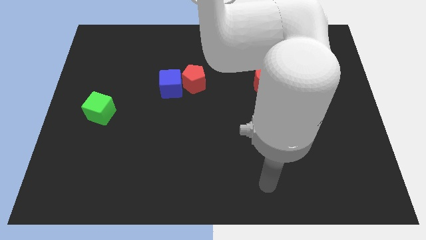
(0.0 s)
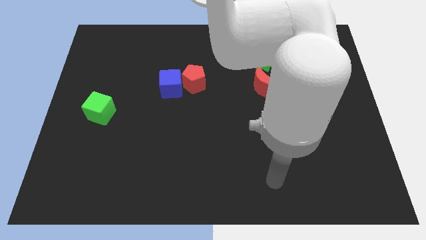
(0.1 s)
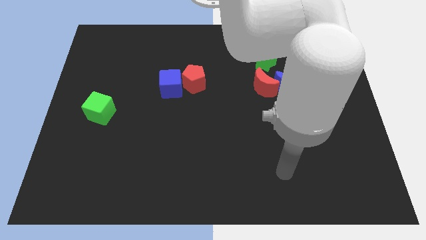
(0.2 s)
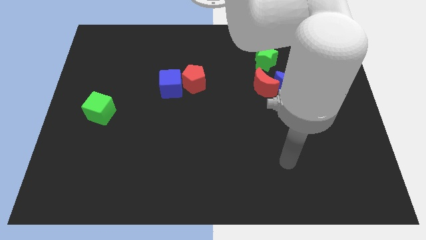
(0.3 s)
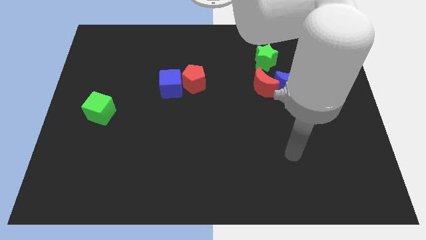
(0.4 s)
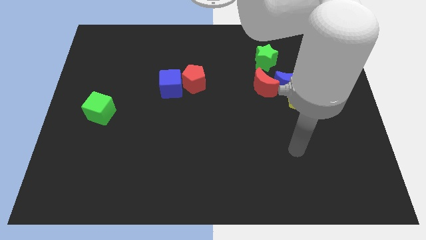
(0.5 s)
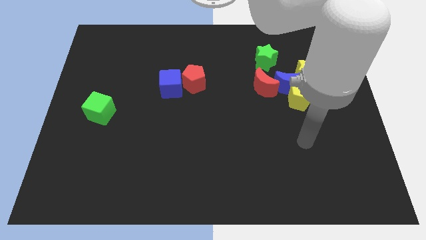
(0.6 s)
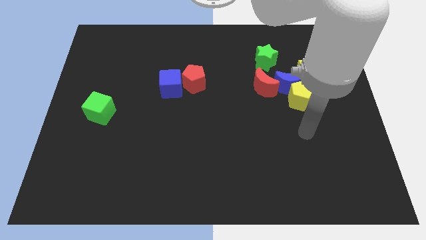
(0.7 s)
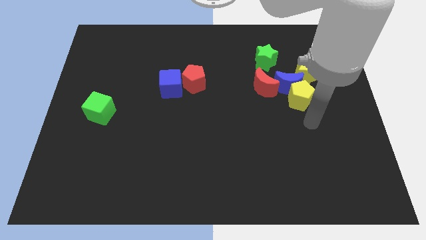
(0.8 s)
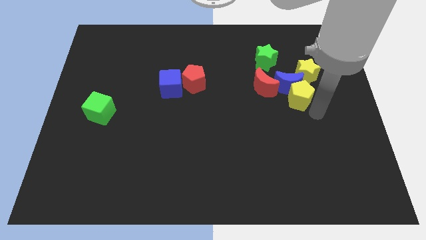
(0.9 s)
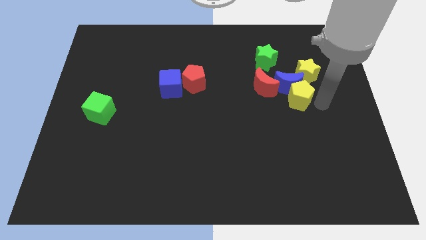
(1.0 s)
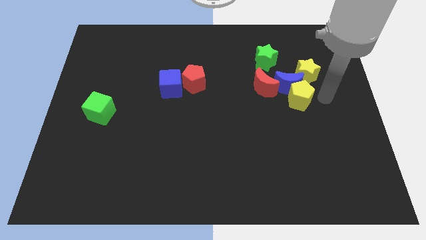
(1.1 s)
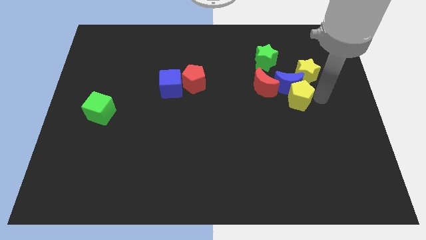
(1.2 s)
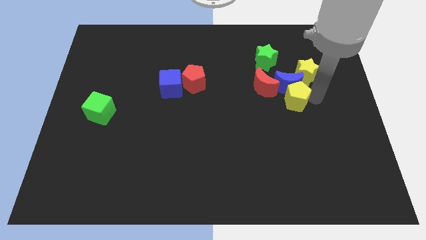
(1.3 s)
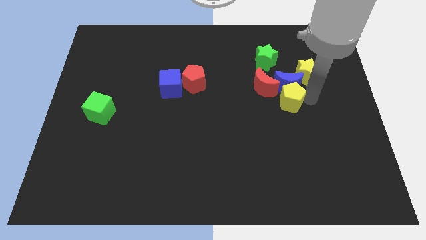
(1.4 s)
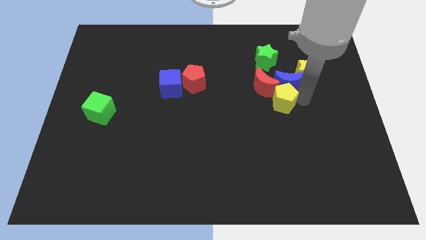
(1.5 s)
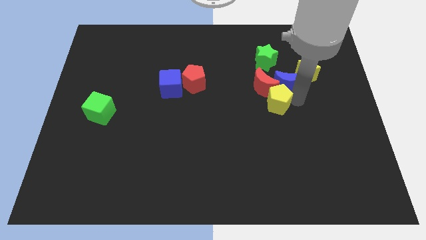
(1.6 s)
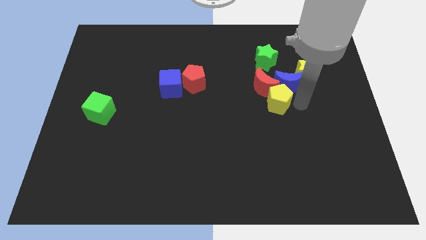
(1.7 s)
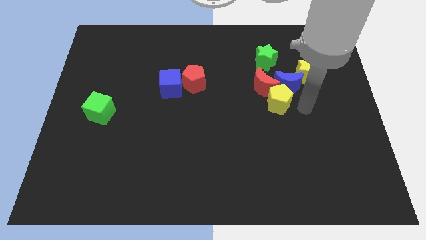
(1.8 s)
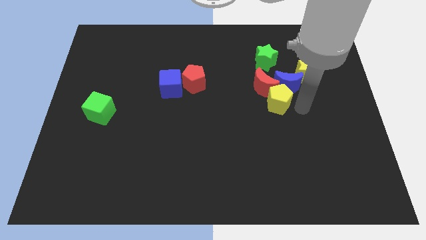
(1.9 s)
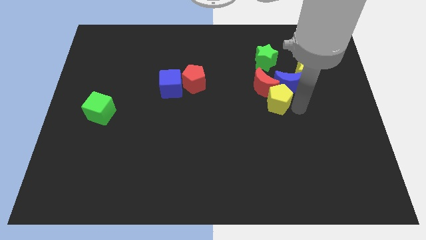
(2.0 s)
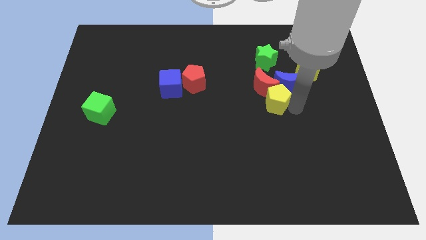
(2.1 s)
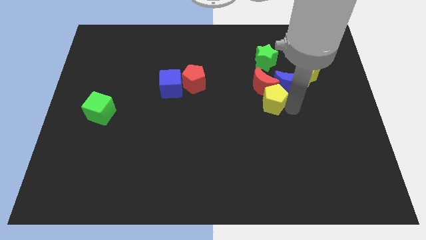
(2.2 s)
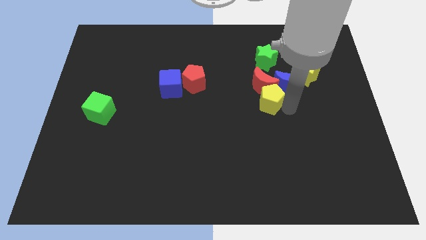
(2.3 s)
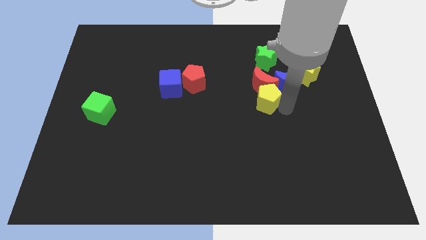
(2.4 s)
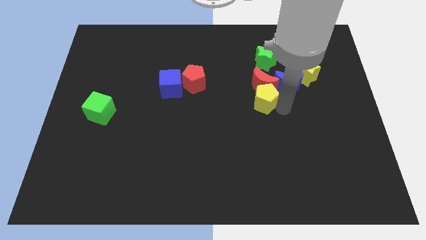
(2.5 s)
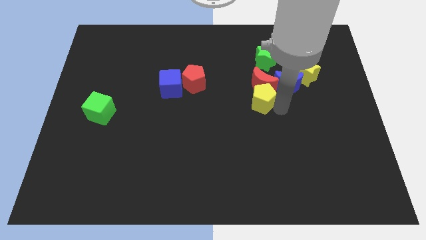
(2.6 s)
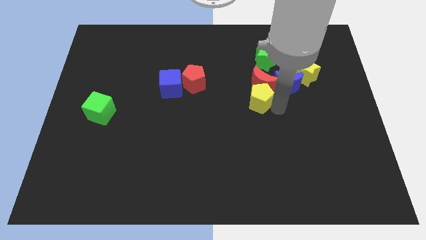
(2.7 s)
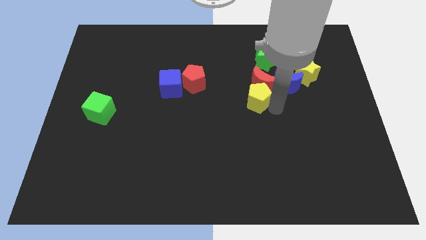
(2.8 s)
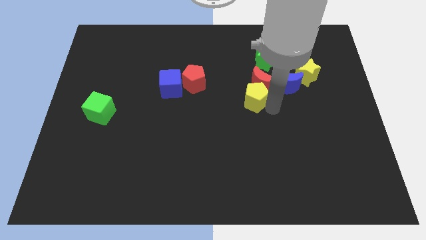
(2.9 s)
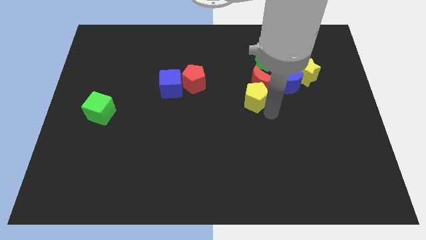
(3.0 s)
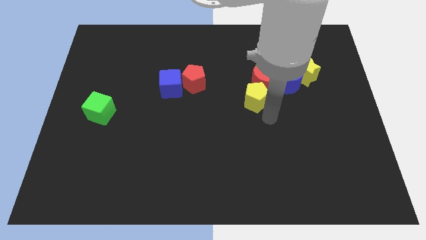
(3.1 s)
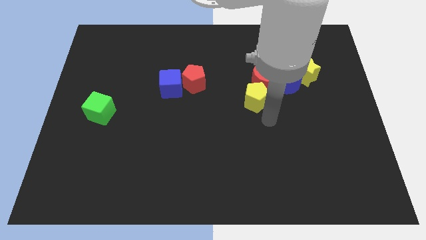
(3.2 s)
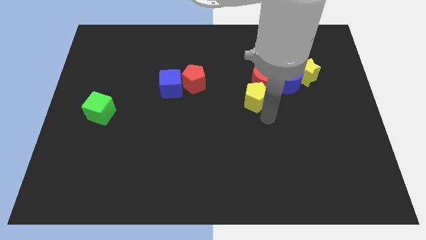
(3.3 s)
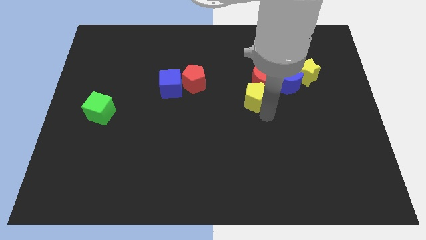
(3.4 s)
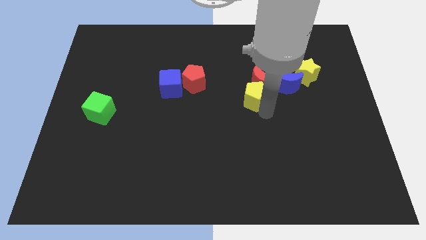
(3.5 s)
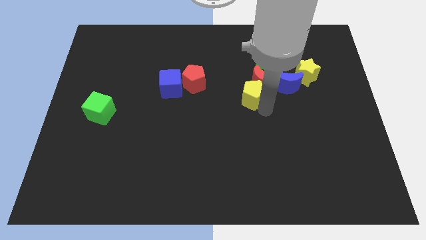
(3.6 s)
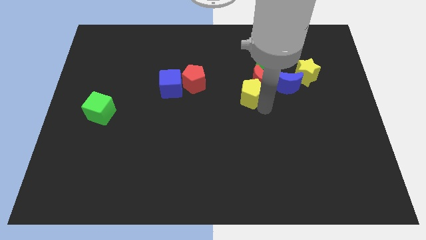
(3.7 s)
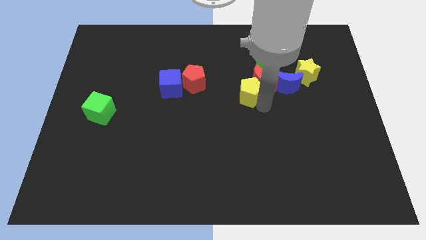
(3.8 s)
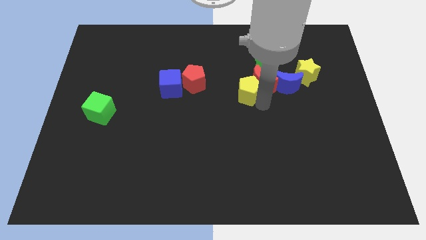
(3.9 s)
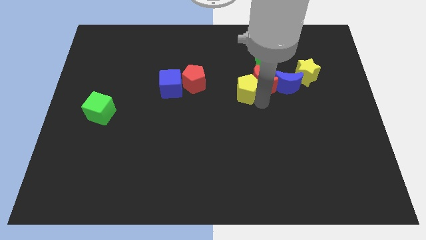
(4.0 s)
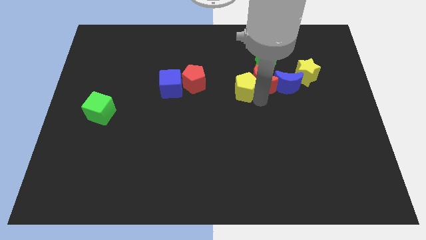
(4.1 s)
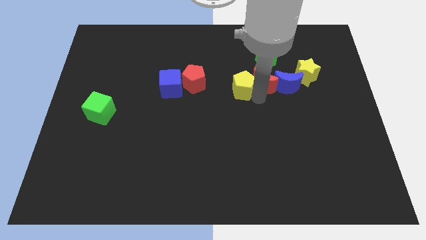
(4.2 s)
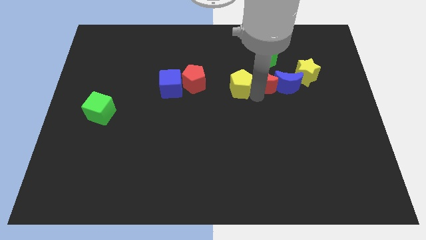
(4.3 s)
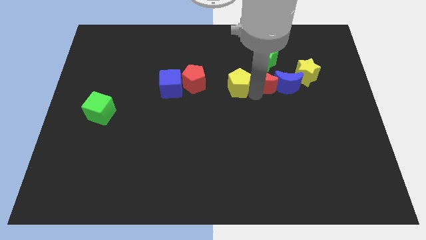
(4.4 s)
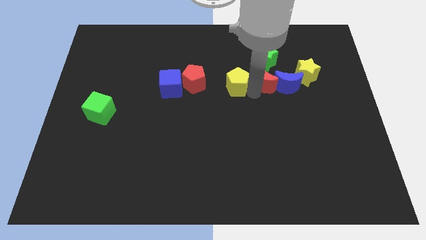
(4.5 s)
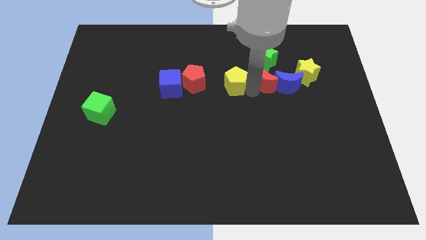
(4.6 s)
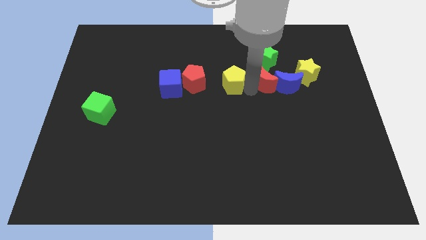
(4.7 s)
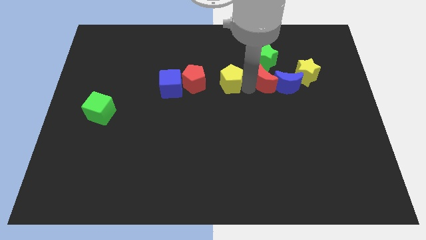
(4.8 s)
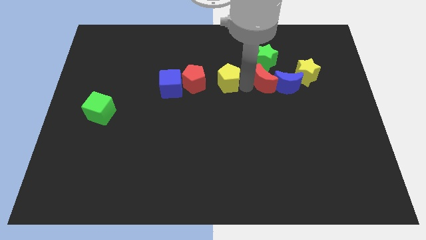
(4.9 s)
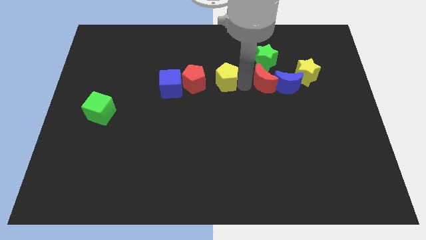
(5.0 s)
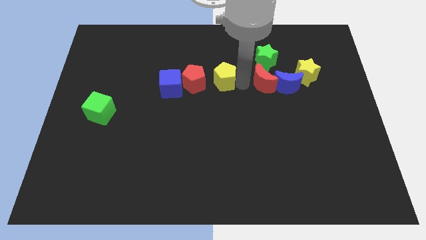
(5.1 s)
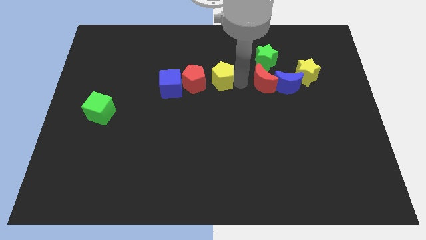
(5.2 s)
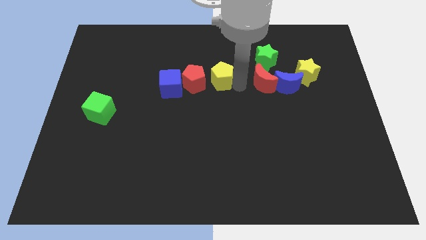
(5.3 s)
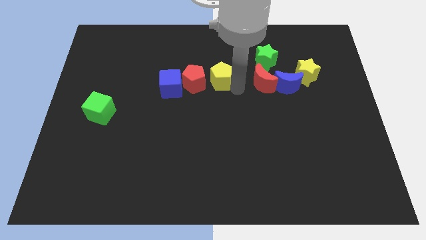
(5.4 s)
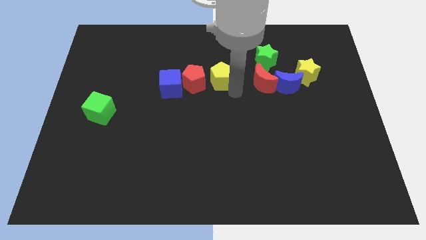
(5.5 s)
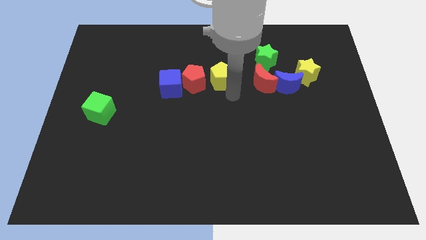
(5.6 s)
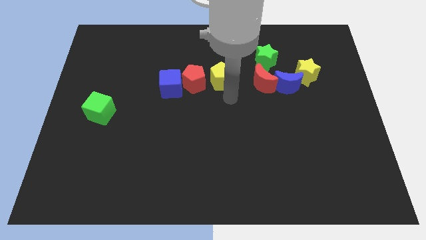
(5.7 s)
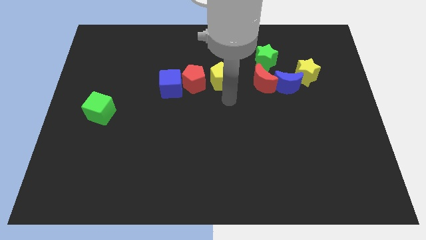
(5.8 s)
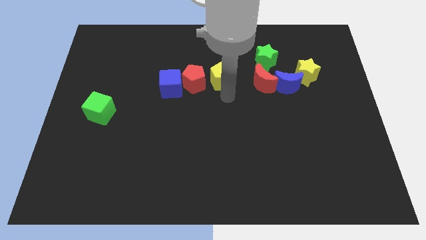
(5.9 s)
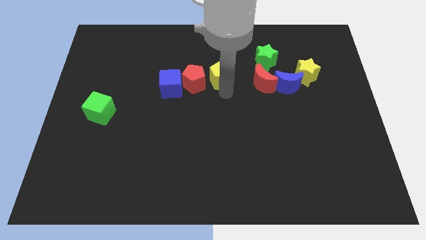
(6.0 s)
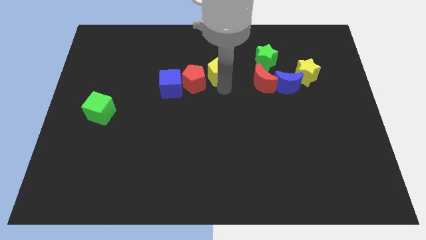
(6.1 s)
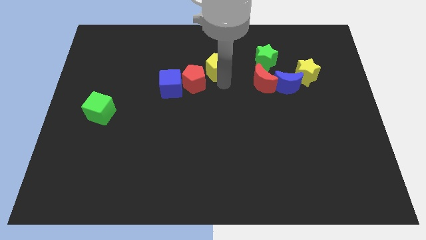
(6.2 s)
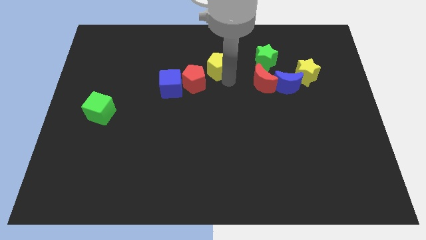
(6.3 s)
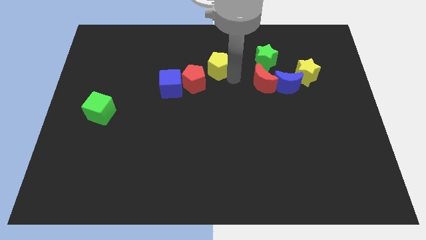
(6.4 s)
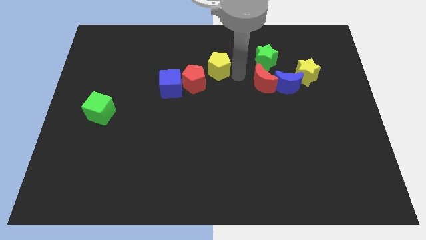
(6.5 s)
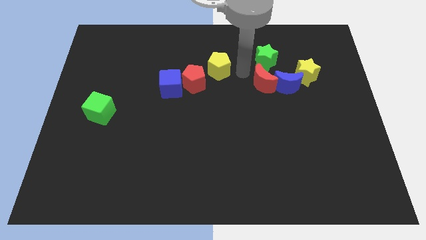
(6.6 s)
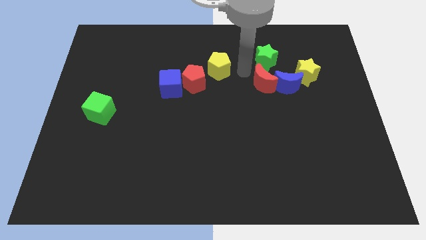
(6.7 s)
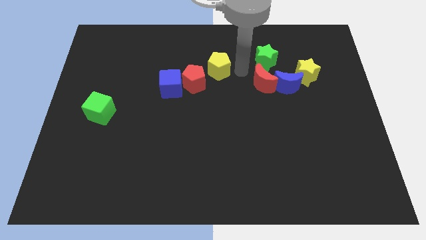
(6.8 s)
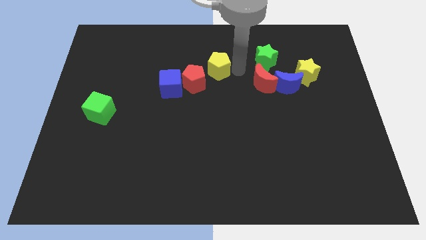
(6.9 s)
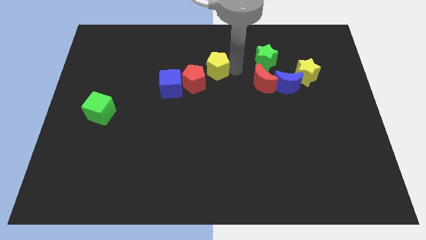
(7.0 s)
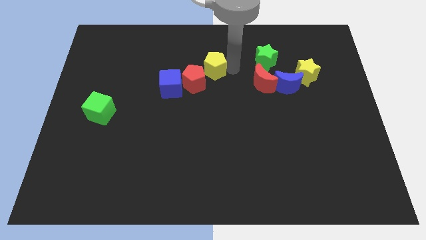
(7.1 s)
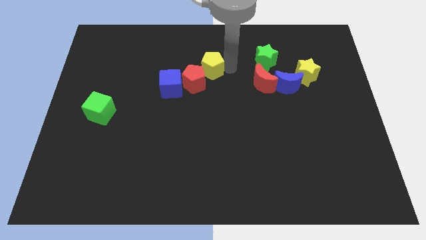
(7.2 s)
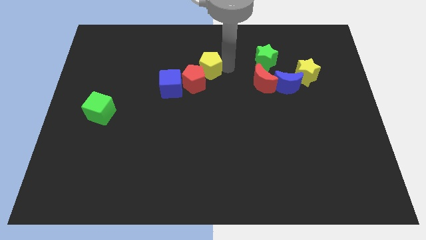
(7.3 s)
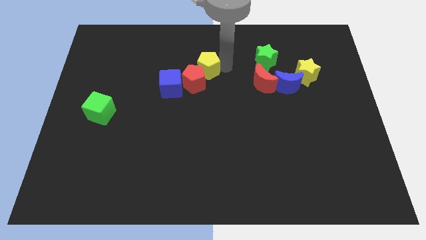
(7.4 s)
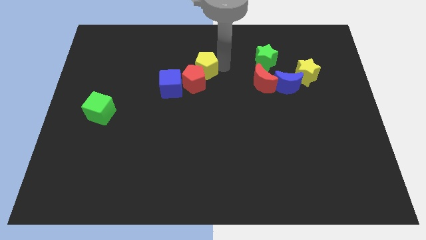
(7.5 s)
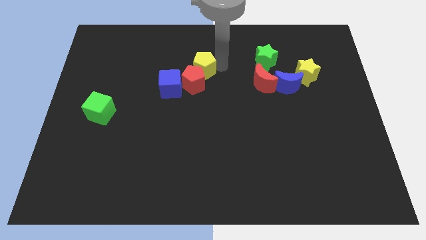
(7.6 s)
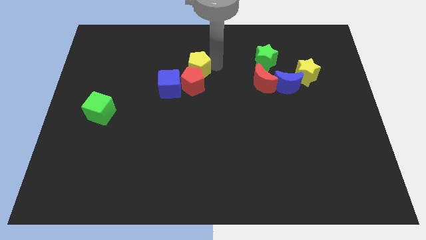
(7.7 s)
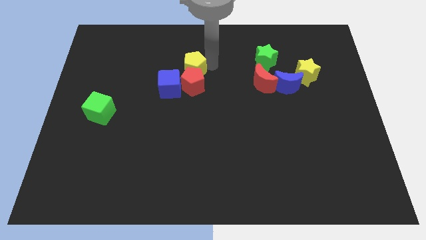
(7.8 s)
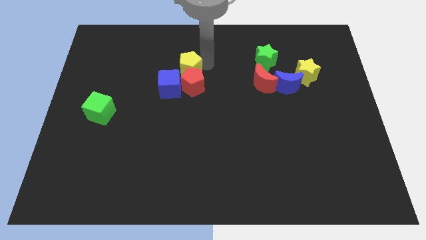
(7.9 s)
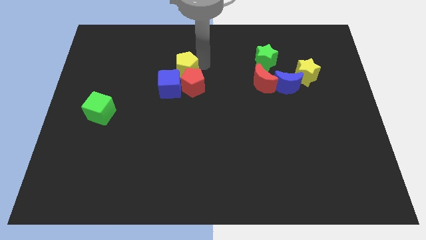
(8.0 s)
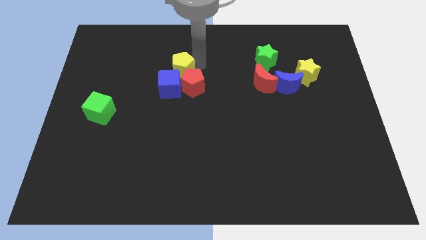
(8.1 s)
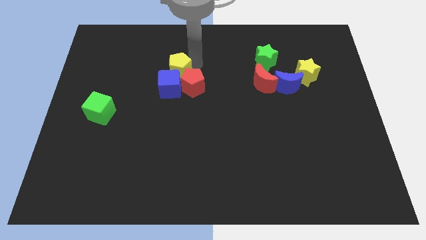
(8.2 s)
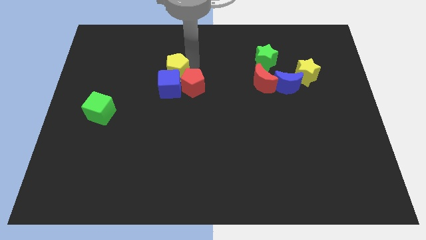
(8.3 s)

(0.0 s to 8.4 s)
slide the yellow pentagon to the top left side of the blue cube
